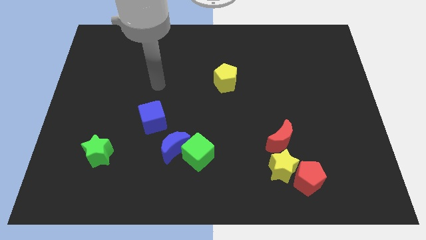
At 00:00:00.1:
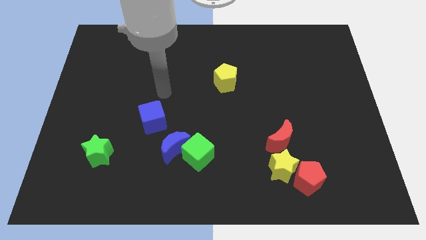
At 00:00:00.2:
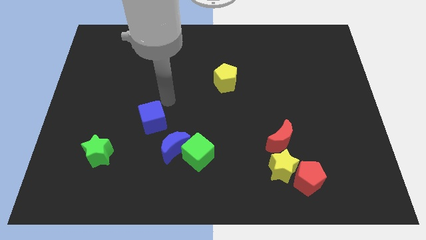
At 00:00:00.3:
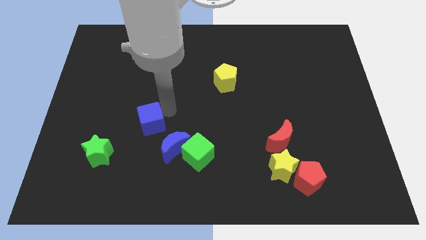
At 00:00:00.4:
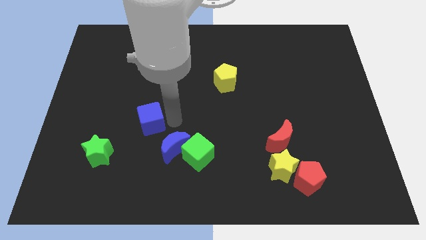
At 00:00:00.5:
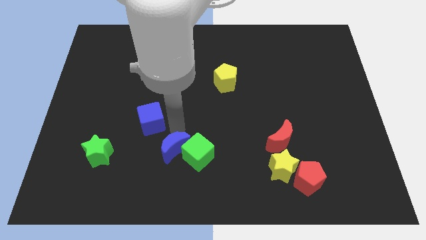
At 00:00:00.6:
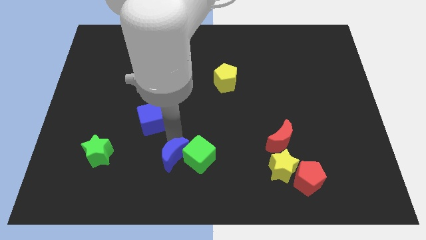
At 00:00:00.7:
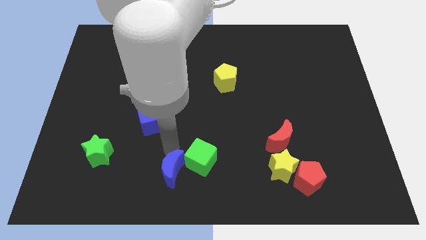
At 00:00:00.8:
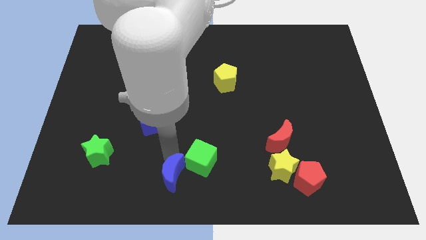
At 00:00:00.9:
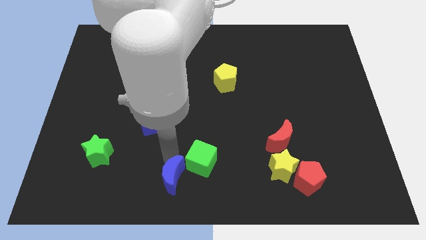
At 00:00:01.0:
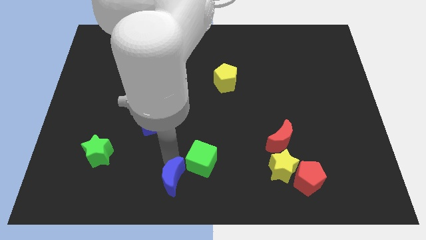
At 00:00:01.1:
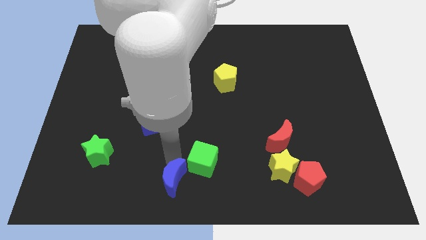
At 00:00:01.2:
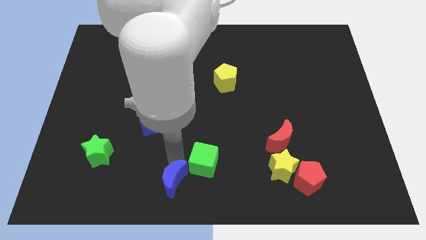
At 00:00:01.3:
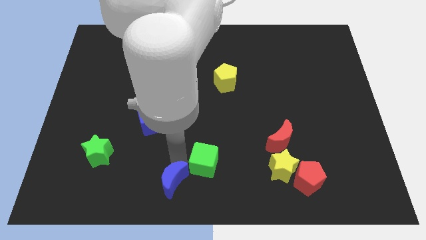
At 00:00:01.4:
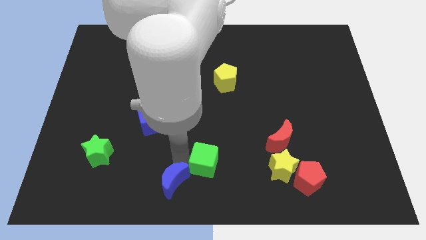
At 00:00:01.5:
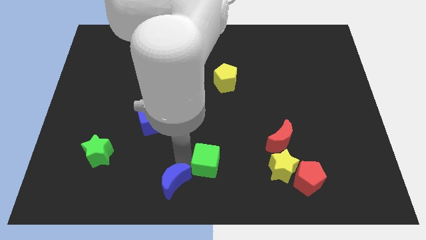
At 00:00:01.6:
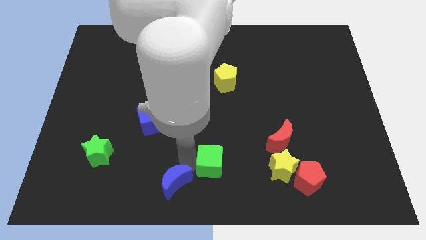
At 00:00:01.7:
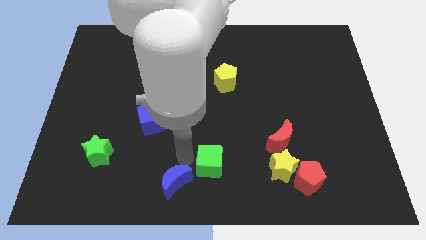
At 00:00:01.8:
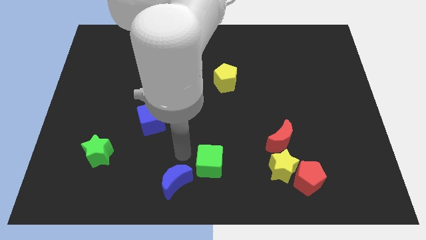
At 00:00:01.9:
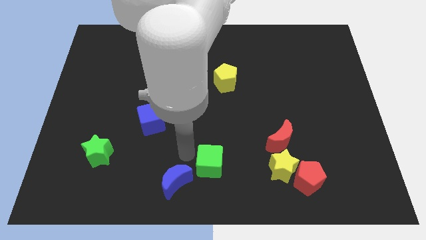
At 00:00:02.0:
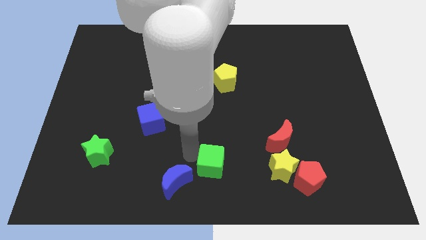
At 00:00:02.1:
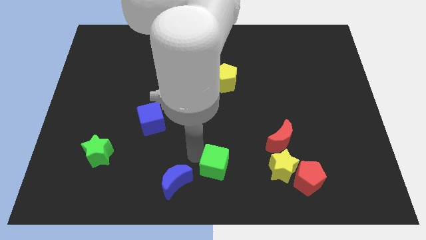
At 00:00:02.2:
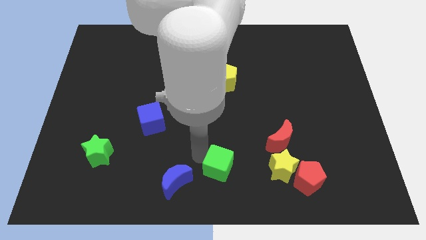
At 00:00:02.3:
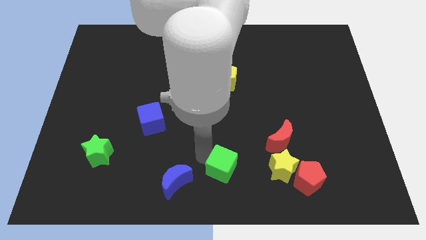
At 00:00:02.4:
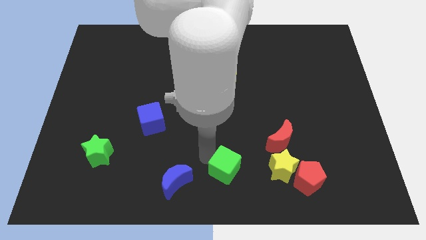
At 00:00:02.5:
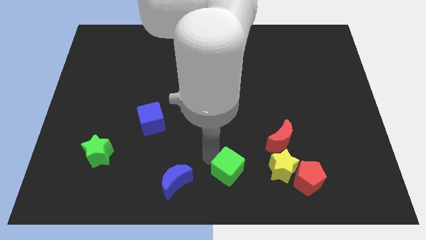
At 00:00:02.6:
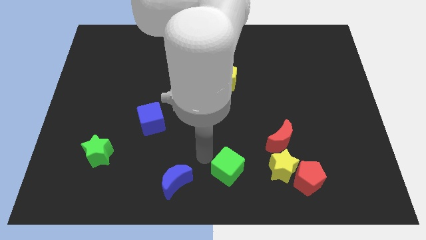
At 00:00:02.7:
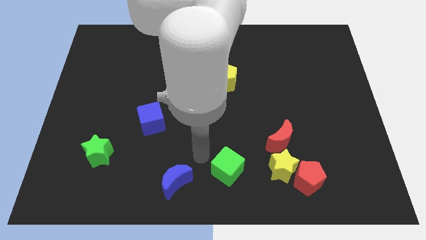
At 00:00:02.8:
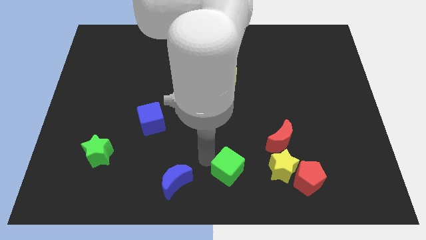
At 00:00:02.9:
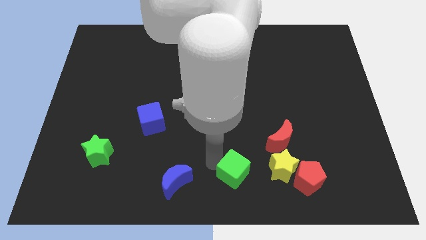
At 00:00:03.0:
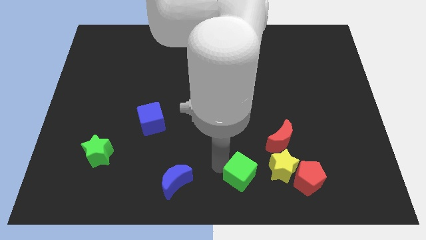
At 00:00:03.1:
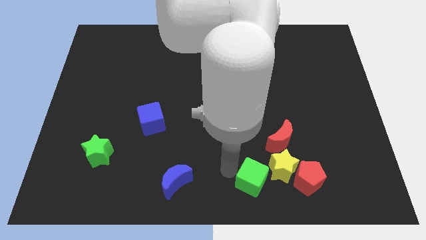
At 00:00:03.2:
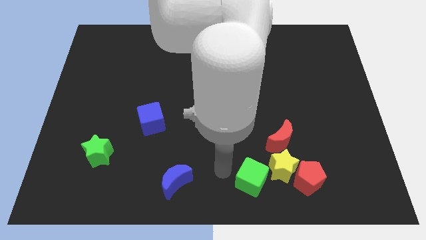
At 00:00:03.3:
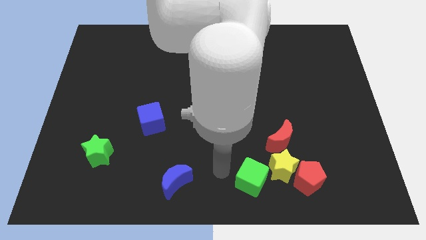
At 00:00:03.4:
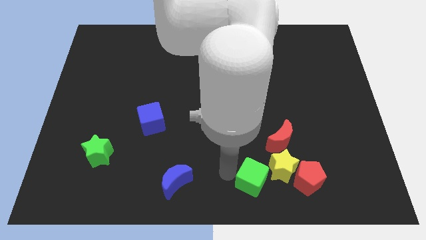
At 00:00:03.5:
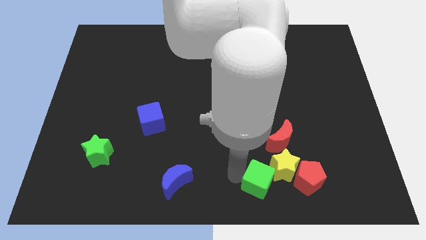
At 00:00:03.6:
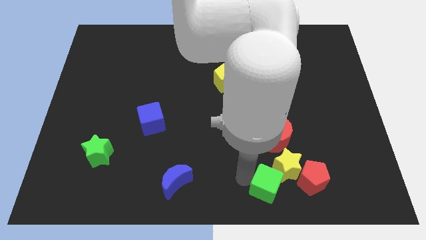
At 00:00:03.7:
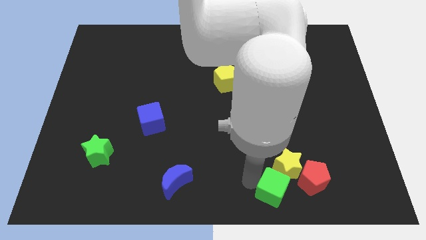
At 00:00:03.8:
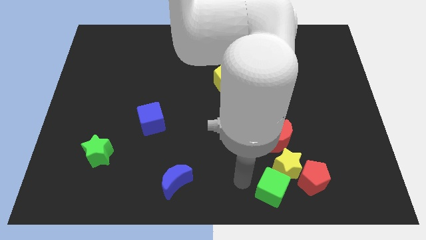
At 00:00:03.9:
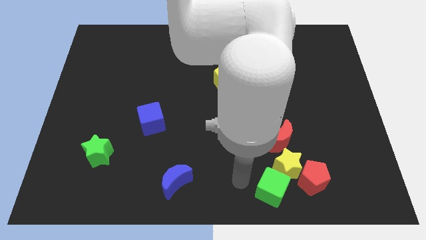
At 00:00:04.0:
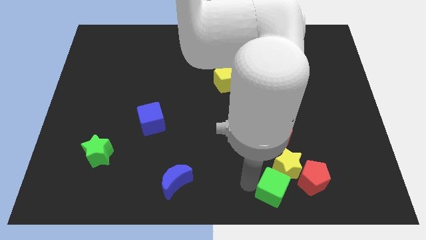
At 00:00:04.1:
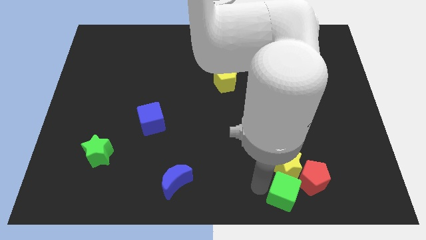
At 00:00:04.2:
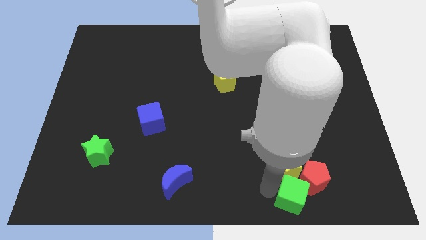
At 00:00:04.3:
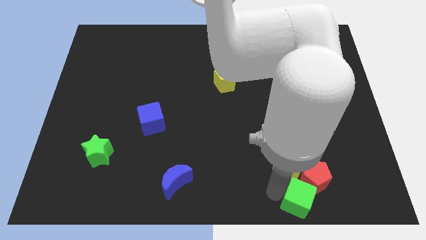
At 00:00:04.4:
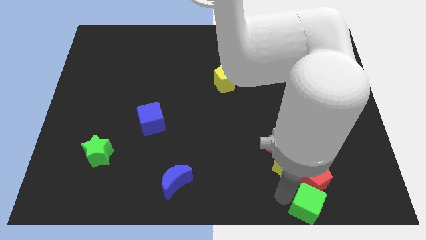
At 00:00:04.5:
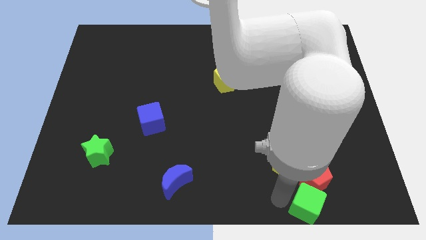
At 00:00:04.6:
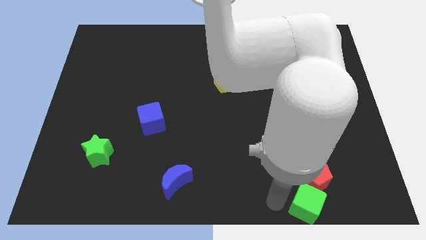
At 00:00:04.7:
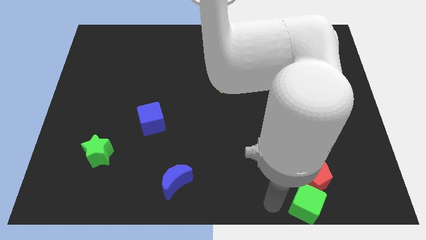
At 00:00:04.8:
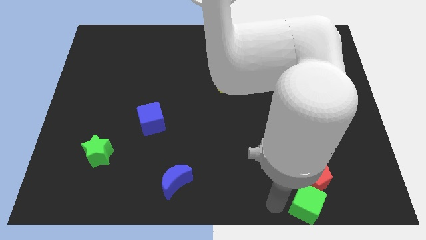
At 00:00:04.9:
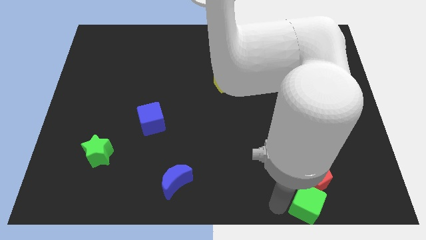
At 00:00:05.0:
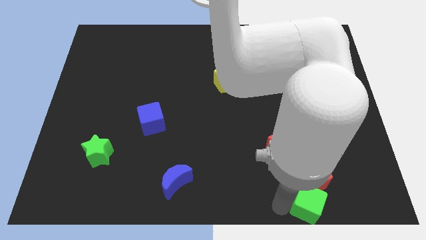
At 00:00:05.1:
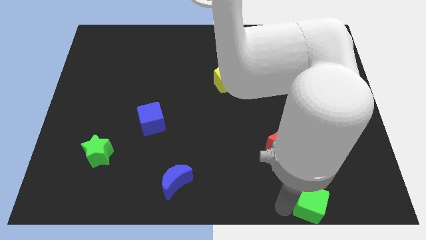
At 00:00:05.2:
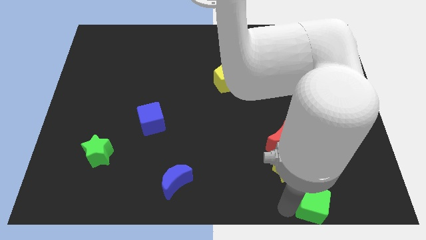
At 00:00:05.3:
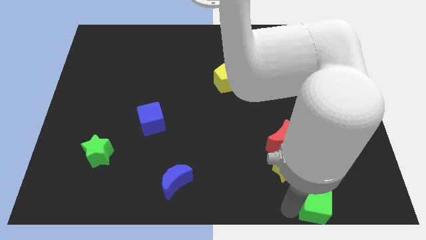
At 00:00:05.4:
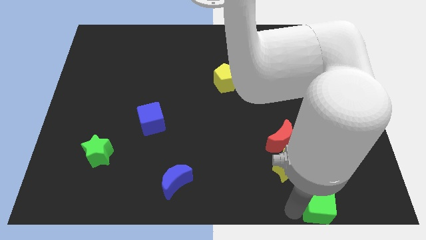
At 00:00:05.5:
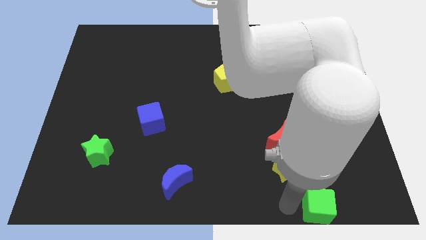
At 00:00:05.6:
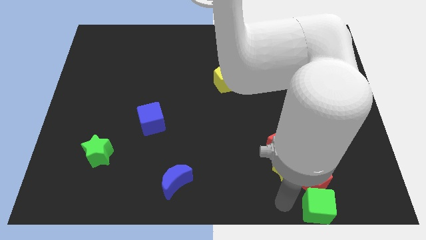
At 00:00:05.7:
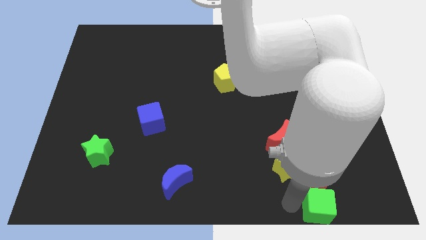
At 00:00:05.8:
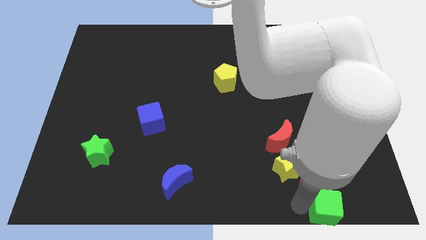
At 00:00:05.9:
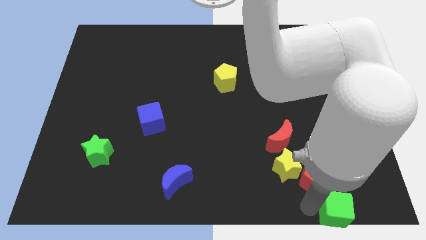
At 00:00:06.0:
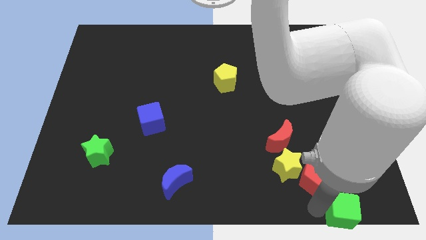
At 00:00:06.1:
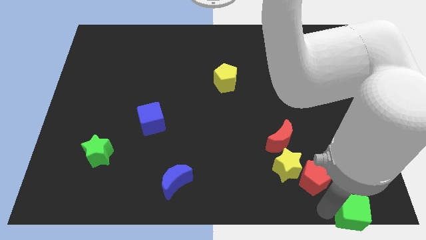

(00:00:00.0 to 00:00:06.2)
slide the green cube to the bottom right of the board

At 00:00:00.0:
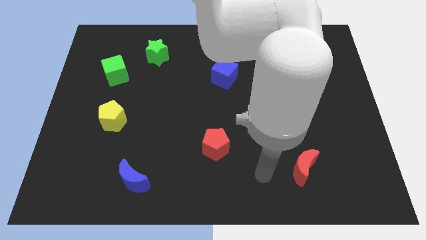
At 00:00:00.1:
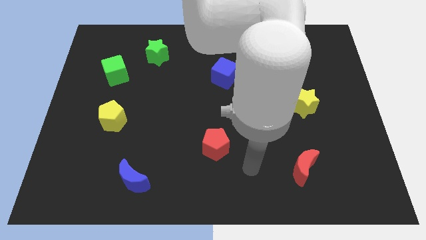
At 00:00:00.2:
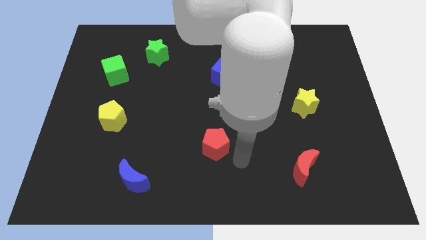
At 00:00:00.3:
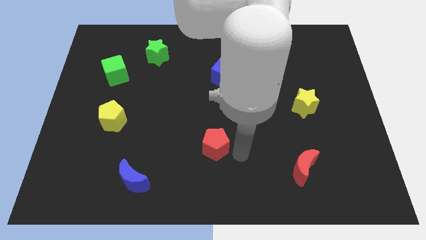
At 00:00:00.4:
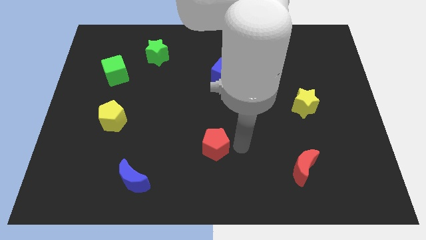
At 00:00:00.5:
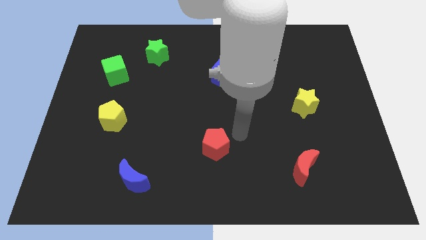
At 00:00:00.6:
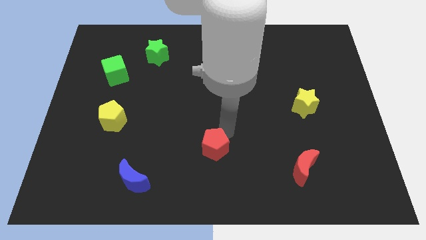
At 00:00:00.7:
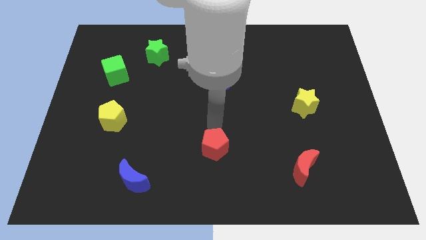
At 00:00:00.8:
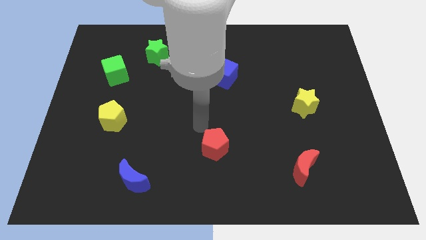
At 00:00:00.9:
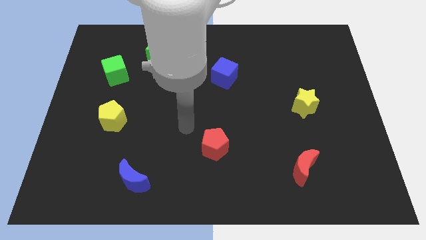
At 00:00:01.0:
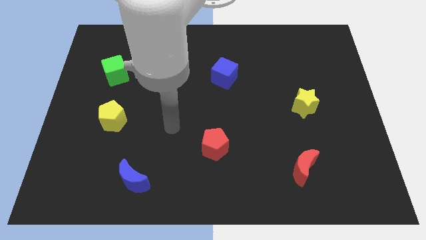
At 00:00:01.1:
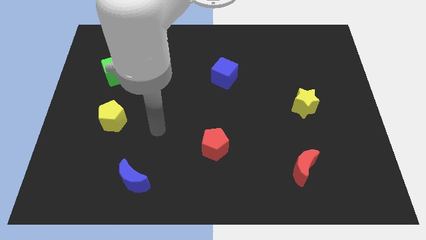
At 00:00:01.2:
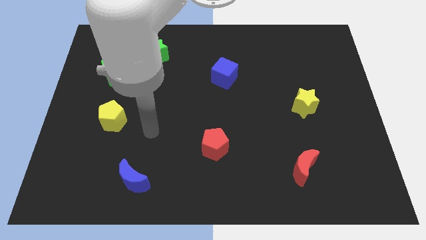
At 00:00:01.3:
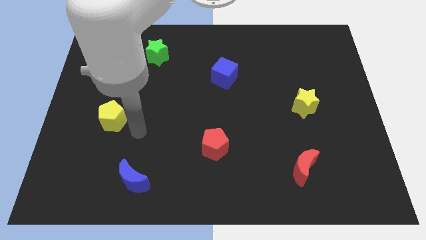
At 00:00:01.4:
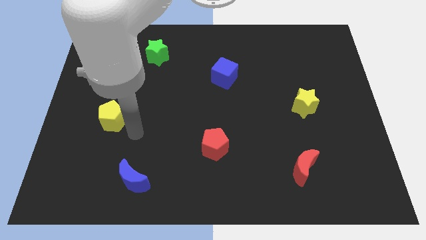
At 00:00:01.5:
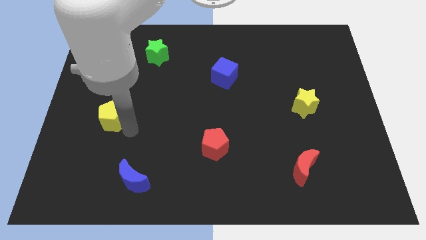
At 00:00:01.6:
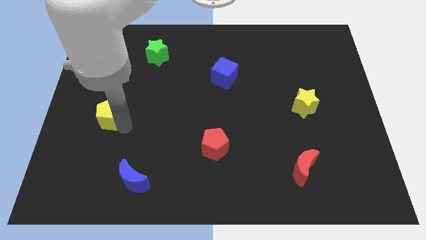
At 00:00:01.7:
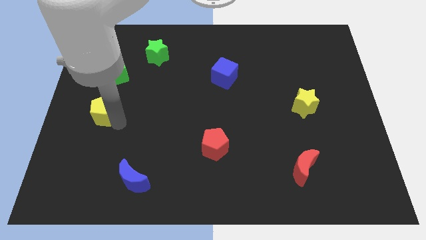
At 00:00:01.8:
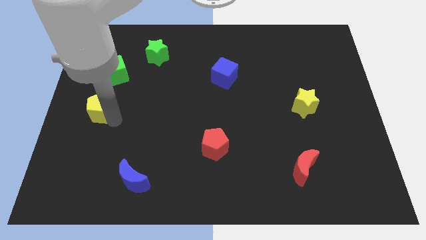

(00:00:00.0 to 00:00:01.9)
push the yellow pentagon to the center left
